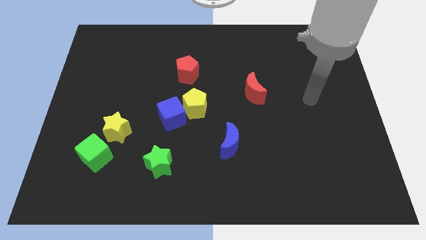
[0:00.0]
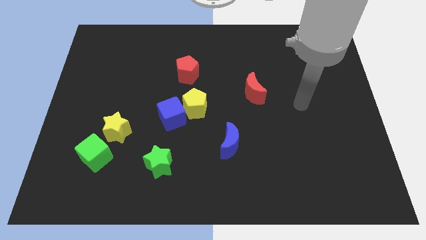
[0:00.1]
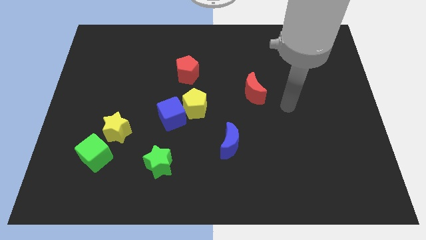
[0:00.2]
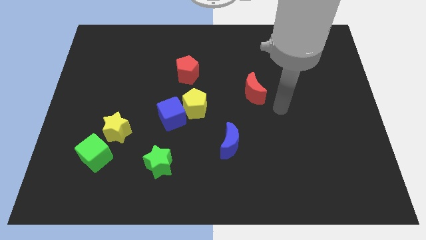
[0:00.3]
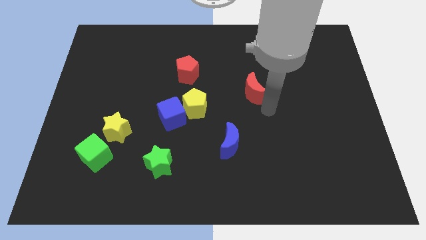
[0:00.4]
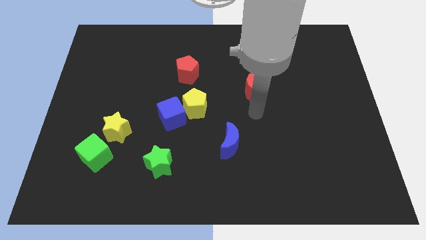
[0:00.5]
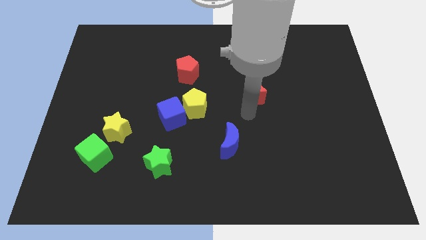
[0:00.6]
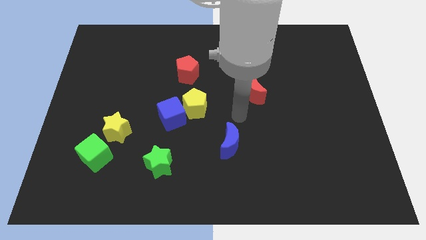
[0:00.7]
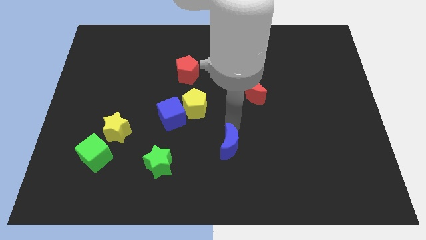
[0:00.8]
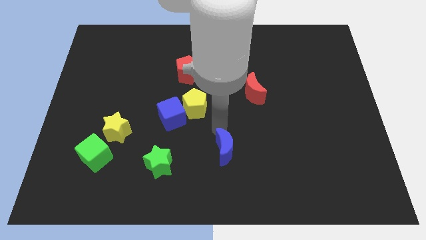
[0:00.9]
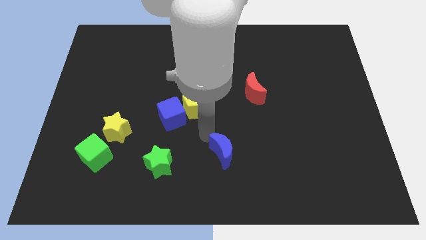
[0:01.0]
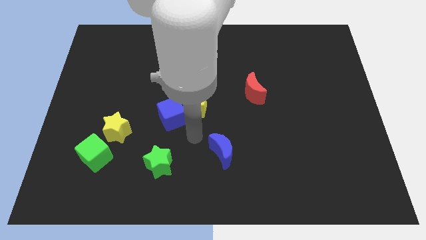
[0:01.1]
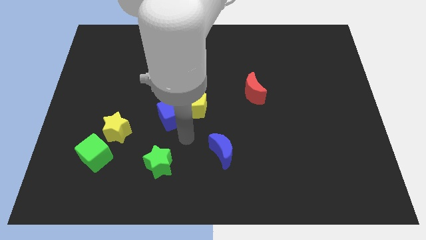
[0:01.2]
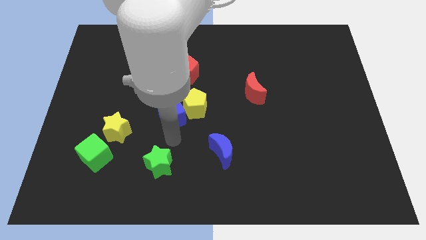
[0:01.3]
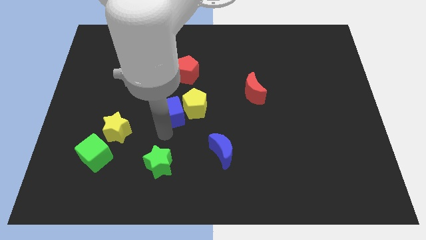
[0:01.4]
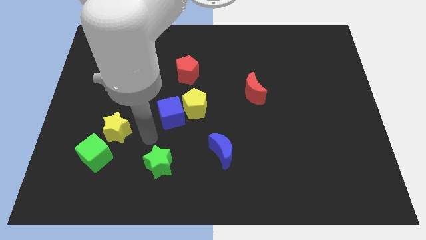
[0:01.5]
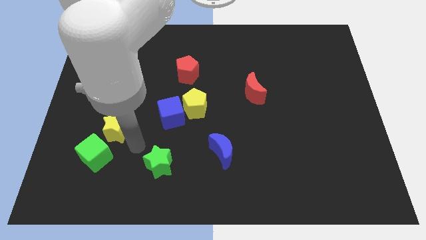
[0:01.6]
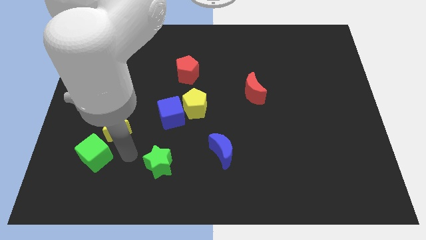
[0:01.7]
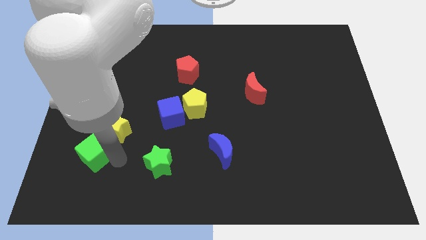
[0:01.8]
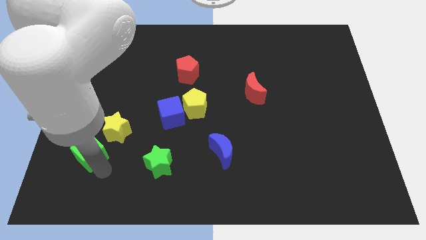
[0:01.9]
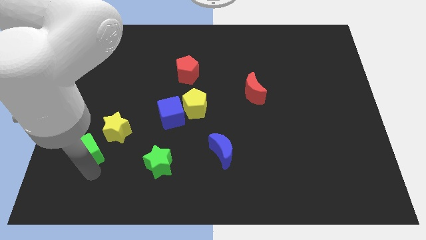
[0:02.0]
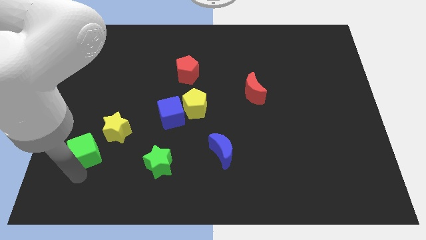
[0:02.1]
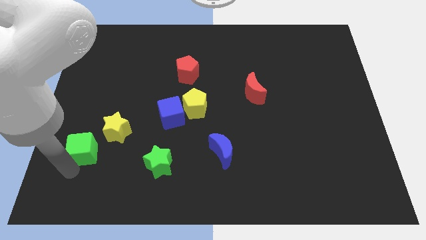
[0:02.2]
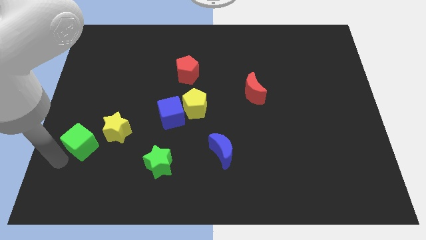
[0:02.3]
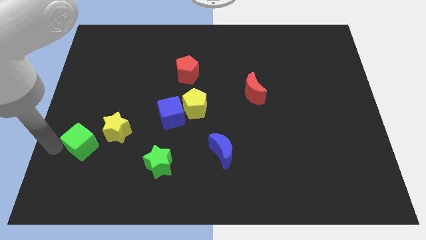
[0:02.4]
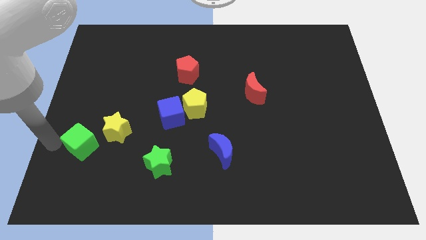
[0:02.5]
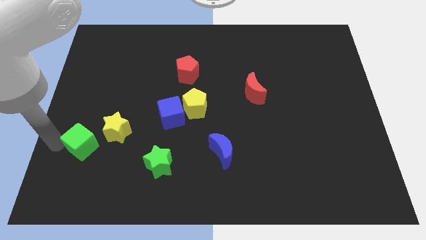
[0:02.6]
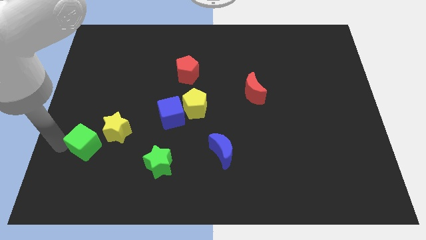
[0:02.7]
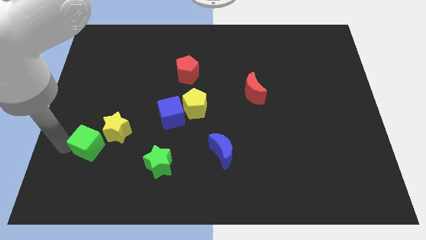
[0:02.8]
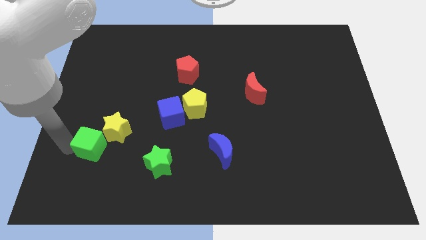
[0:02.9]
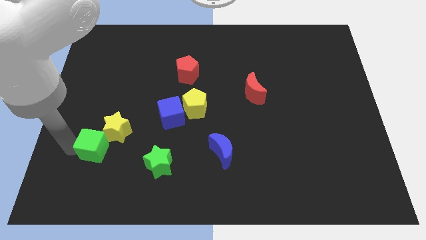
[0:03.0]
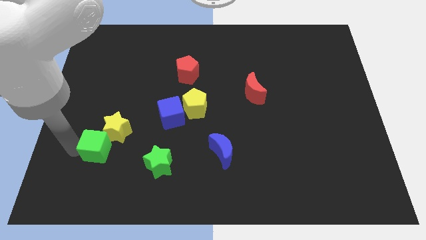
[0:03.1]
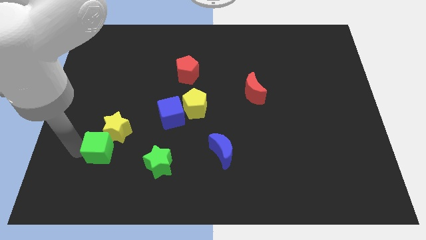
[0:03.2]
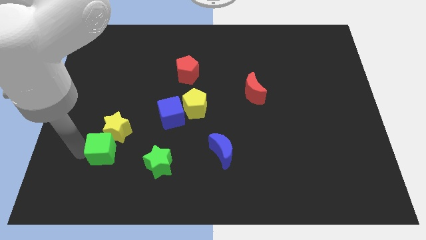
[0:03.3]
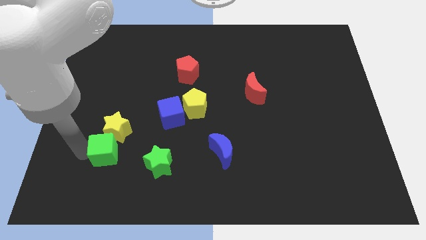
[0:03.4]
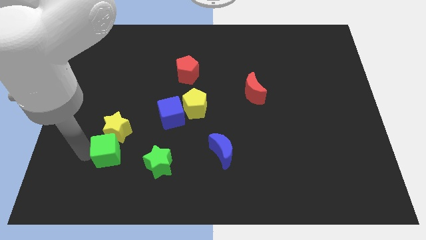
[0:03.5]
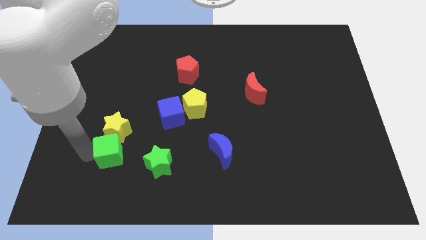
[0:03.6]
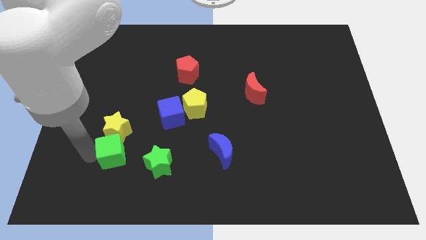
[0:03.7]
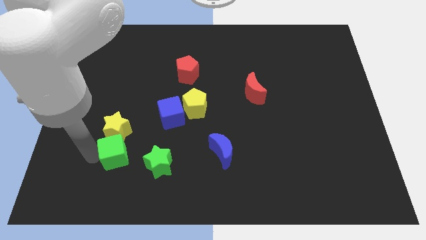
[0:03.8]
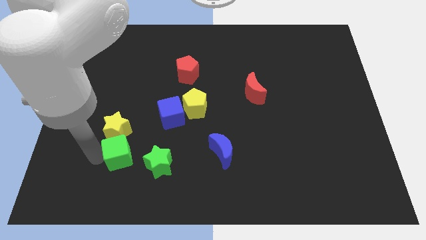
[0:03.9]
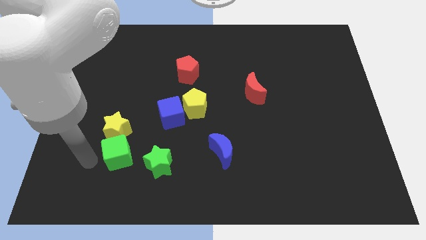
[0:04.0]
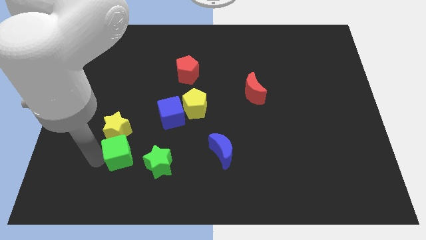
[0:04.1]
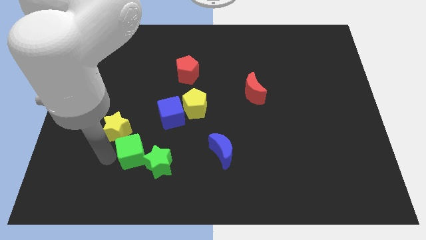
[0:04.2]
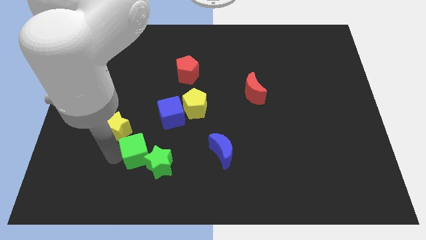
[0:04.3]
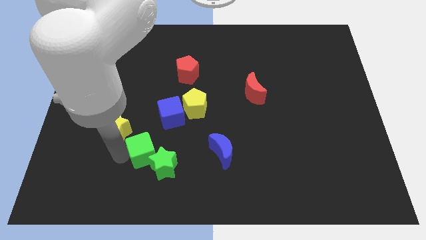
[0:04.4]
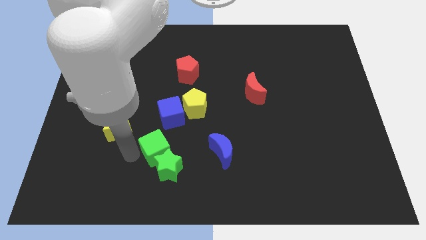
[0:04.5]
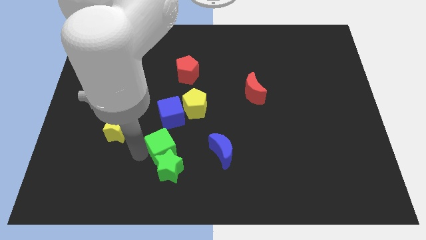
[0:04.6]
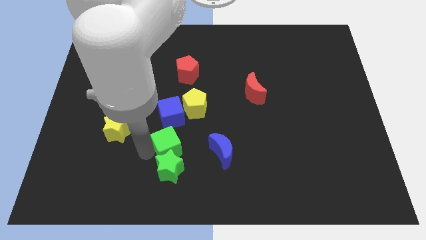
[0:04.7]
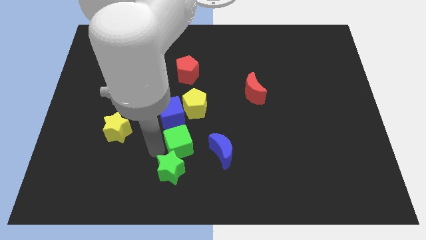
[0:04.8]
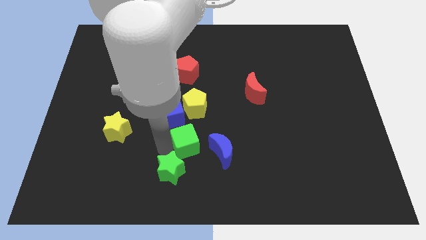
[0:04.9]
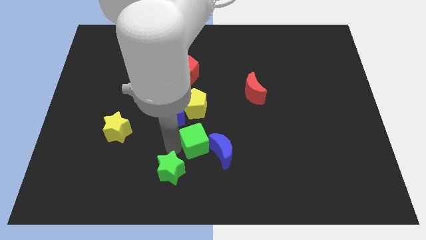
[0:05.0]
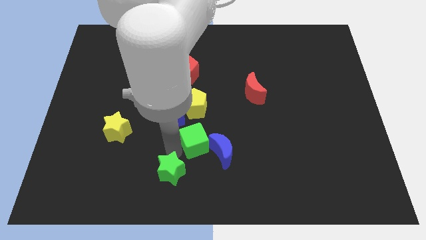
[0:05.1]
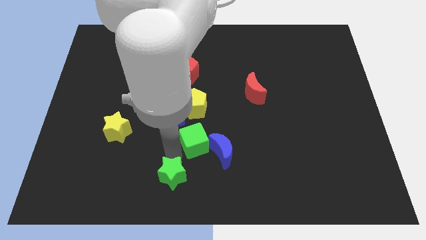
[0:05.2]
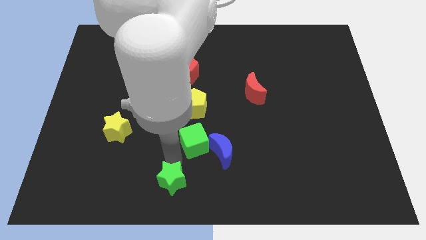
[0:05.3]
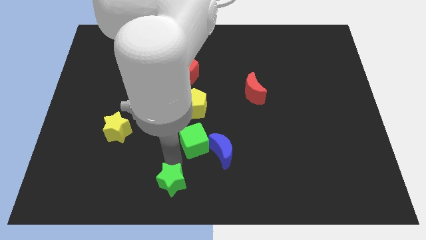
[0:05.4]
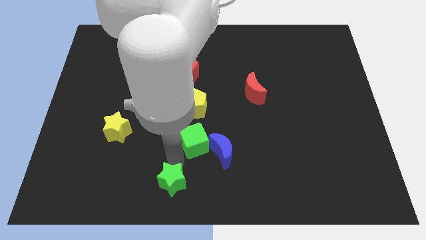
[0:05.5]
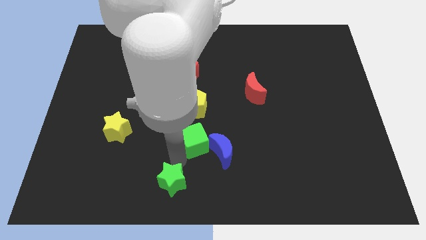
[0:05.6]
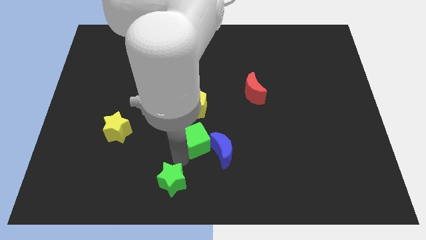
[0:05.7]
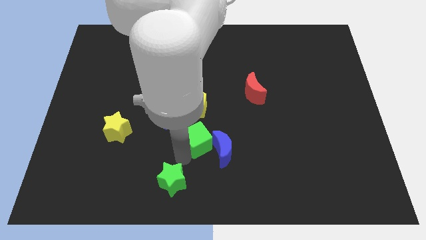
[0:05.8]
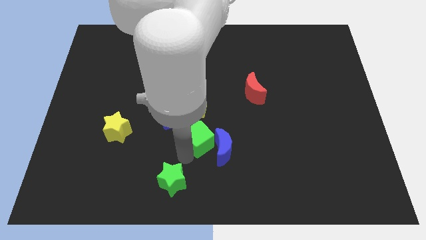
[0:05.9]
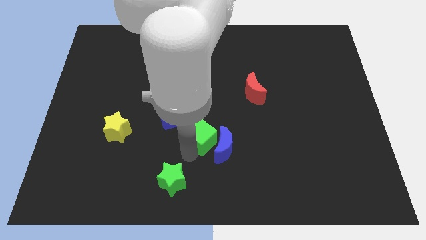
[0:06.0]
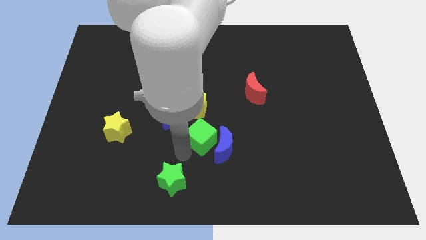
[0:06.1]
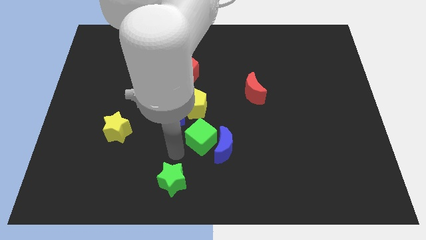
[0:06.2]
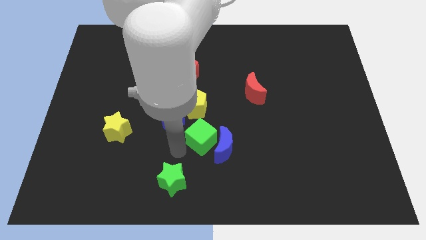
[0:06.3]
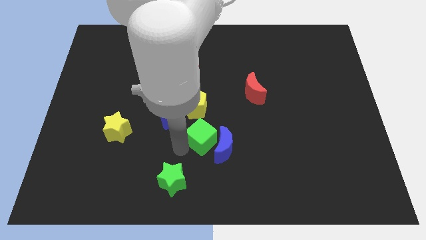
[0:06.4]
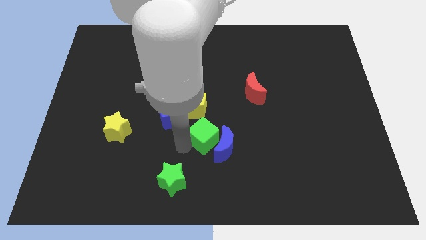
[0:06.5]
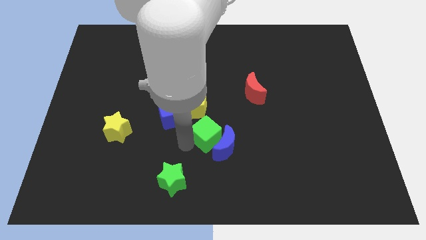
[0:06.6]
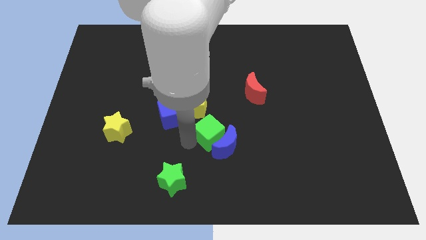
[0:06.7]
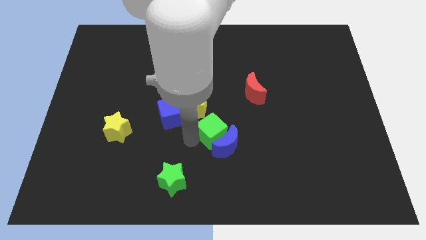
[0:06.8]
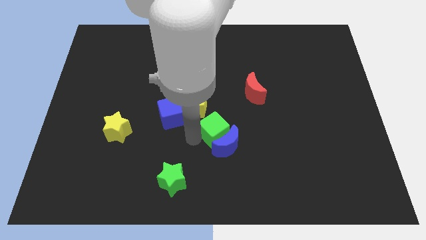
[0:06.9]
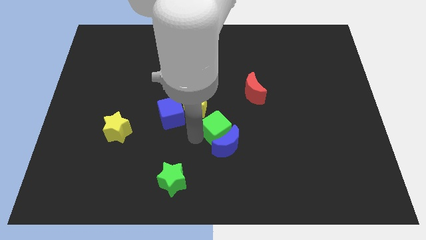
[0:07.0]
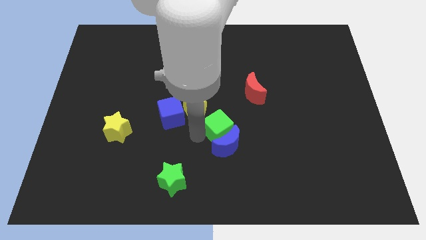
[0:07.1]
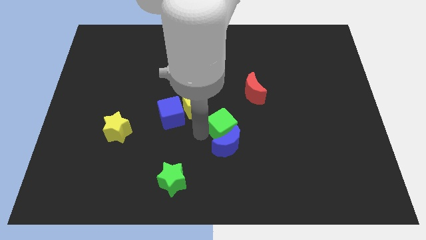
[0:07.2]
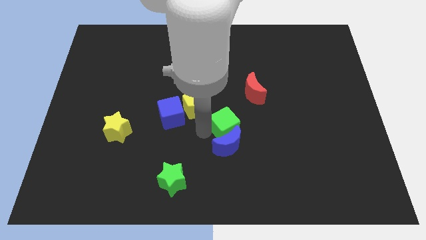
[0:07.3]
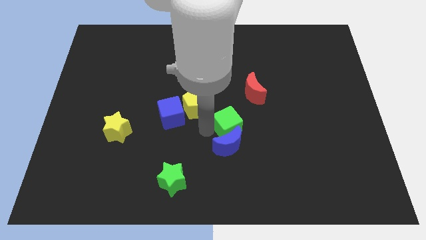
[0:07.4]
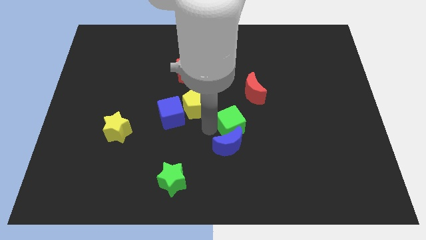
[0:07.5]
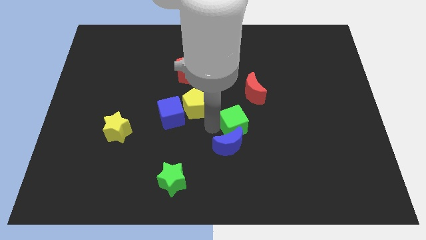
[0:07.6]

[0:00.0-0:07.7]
slide the green cube to the bottom of the red moon
